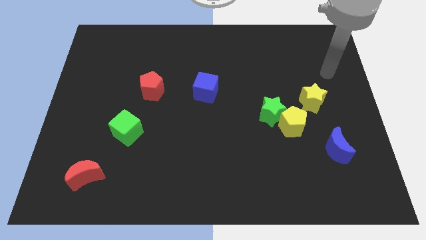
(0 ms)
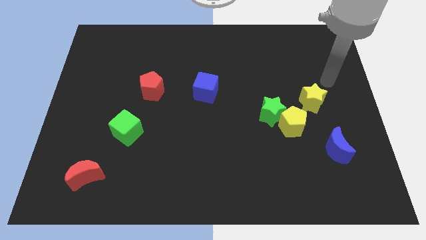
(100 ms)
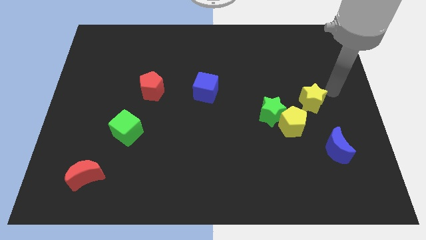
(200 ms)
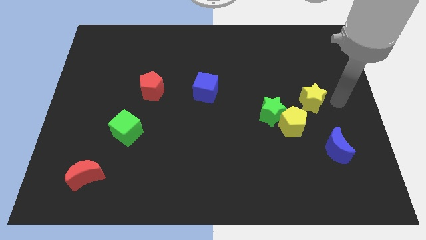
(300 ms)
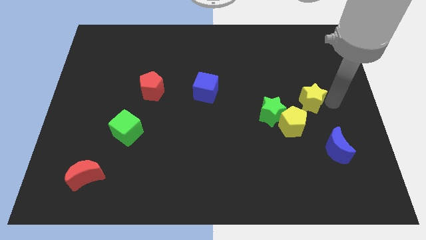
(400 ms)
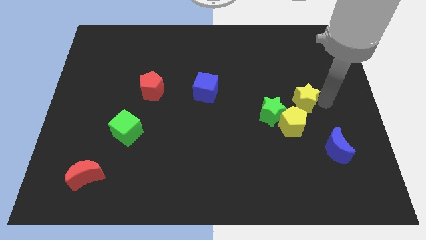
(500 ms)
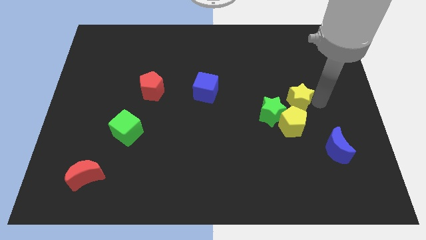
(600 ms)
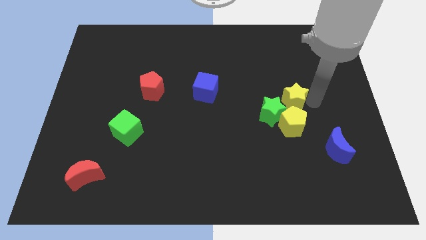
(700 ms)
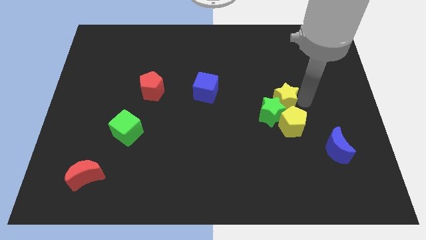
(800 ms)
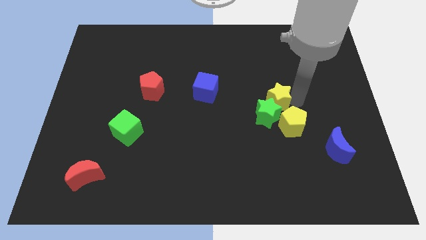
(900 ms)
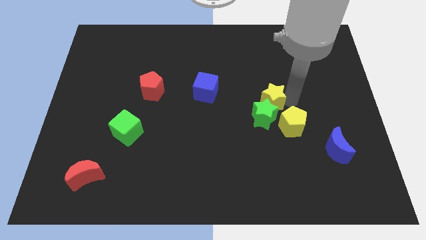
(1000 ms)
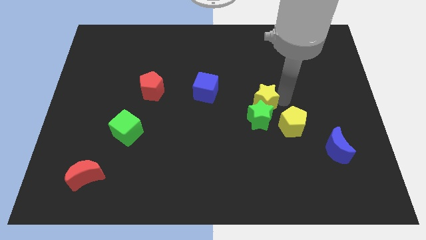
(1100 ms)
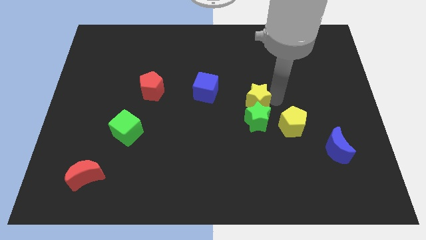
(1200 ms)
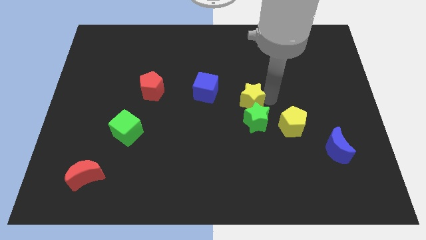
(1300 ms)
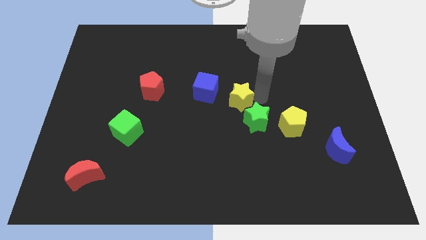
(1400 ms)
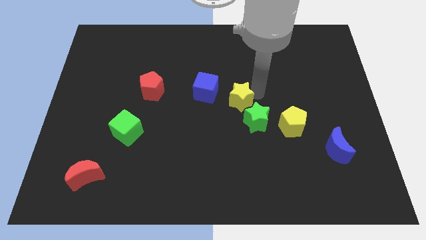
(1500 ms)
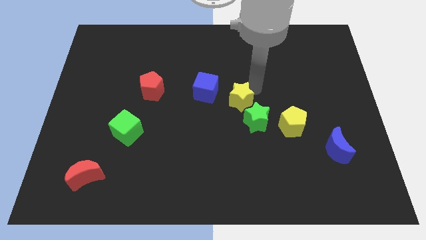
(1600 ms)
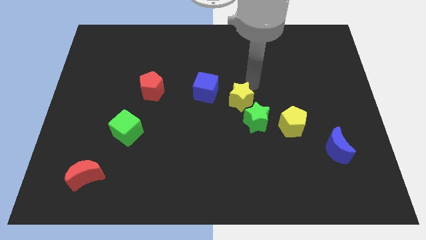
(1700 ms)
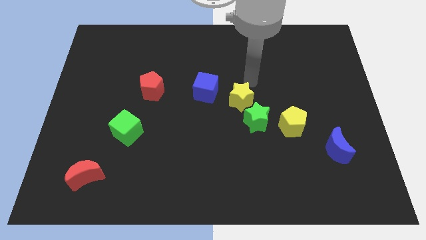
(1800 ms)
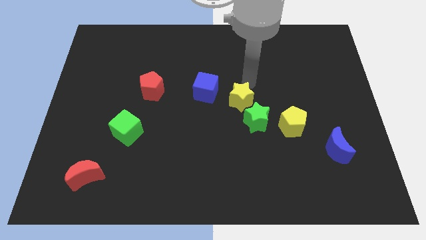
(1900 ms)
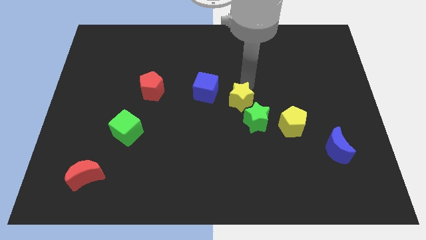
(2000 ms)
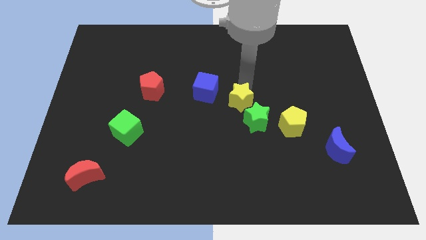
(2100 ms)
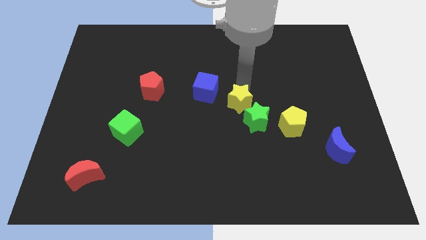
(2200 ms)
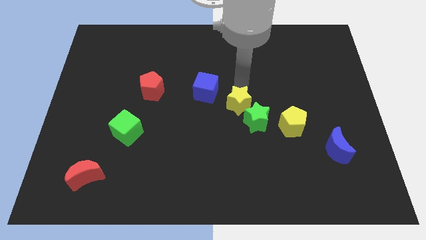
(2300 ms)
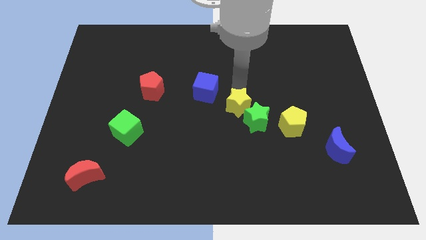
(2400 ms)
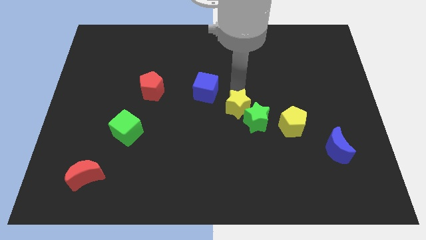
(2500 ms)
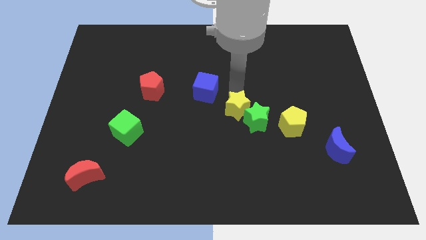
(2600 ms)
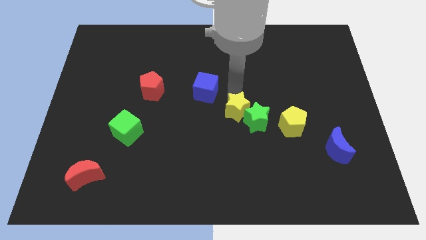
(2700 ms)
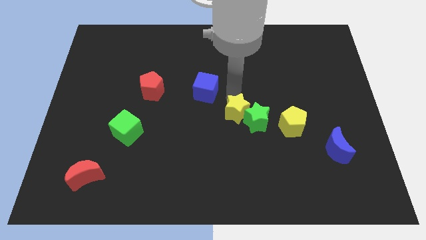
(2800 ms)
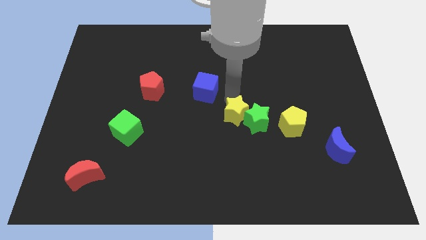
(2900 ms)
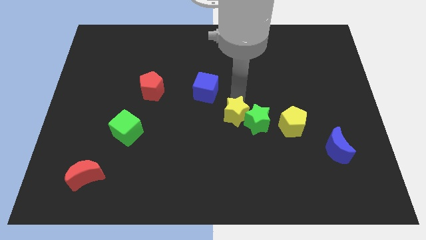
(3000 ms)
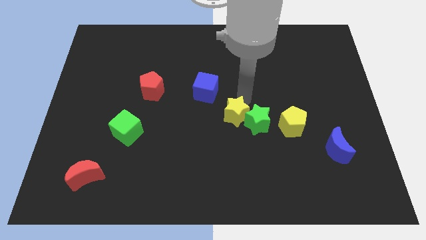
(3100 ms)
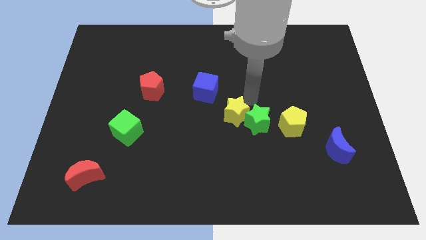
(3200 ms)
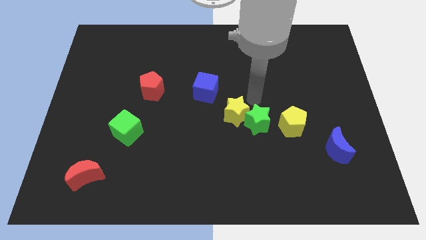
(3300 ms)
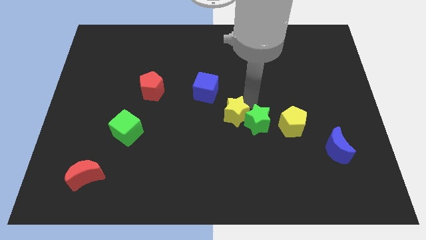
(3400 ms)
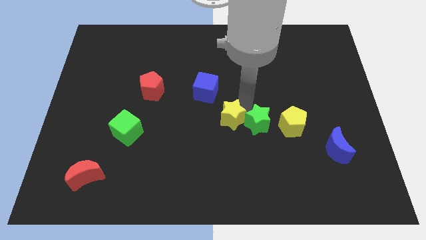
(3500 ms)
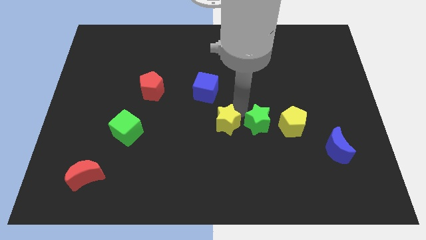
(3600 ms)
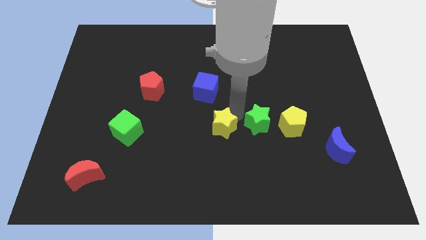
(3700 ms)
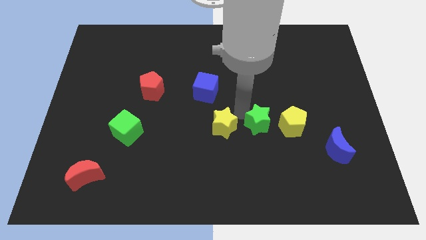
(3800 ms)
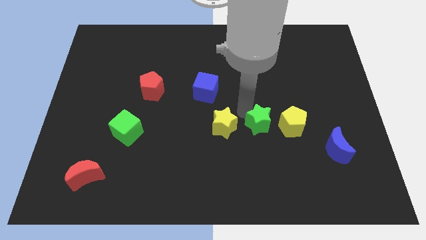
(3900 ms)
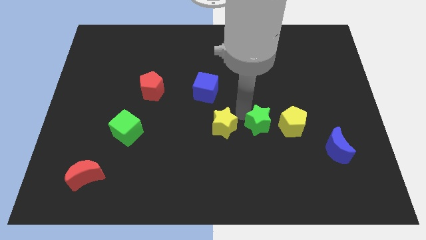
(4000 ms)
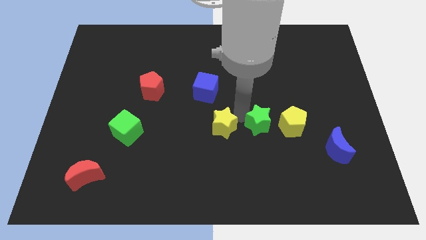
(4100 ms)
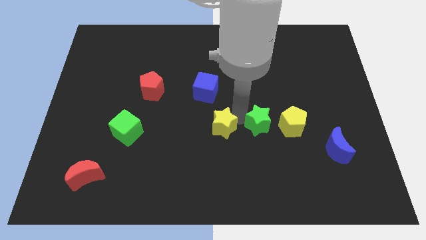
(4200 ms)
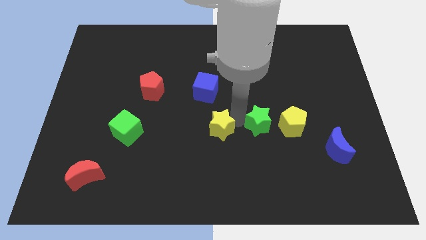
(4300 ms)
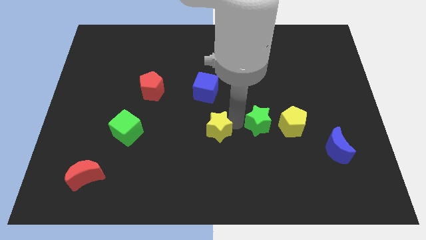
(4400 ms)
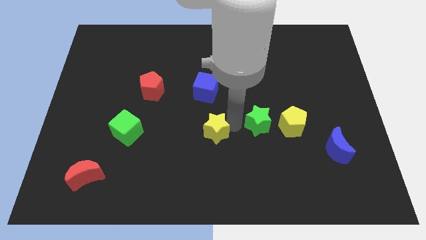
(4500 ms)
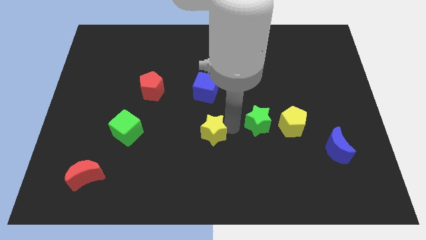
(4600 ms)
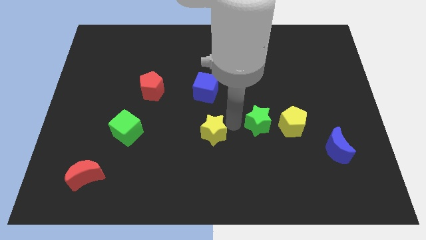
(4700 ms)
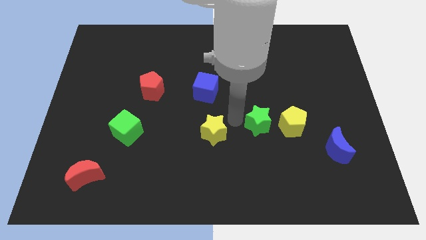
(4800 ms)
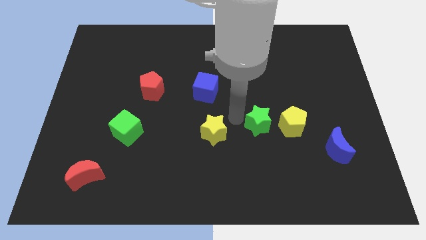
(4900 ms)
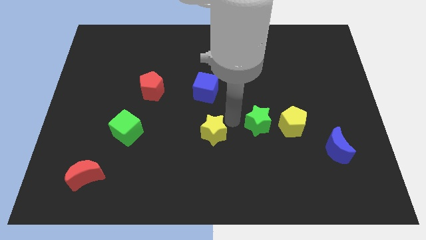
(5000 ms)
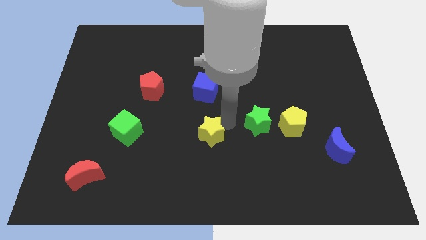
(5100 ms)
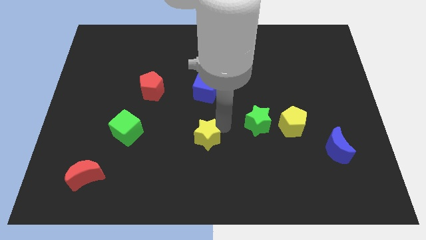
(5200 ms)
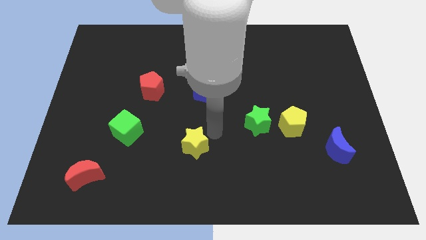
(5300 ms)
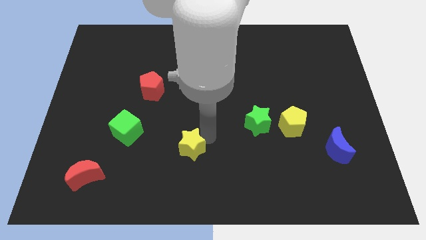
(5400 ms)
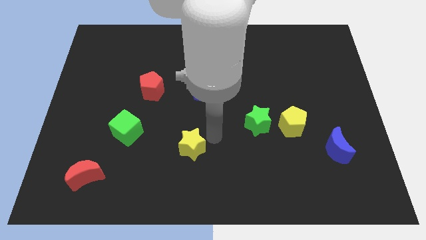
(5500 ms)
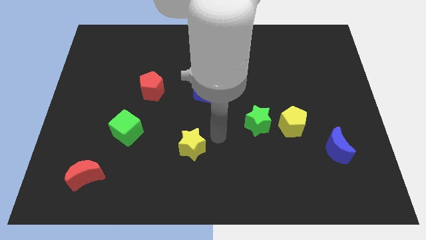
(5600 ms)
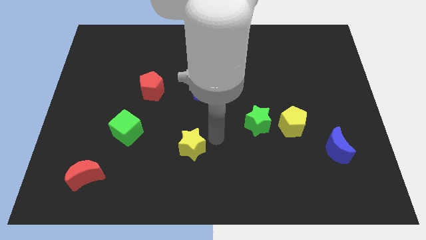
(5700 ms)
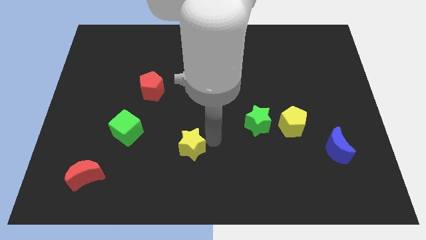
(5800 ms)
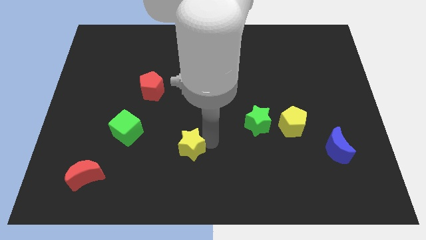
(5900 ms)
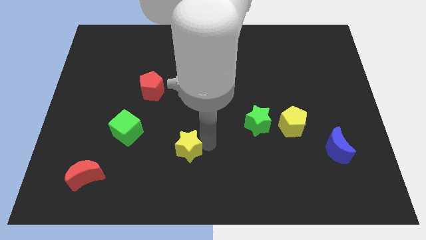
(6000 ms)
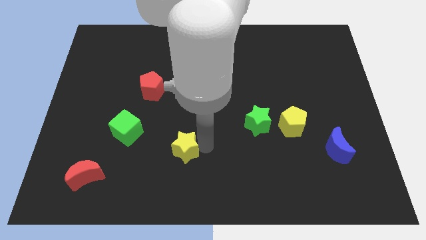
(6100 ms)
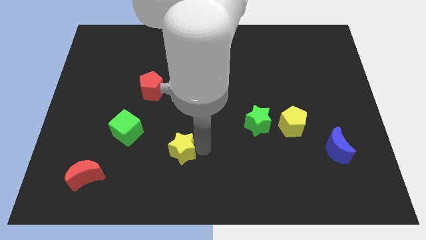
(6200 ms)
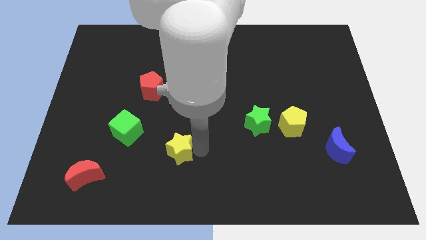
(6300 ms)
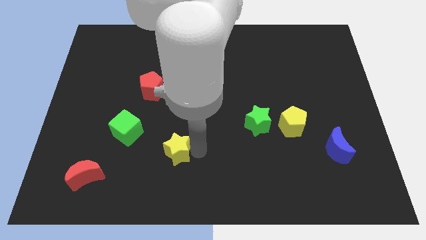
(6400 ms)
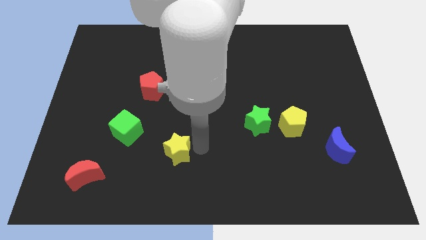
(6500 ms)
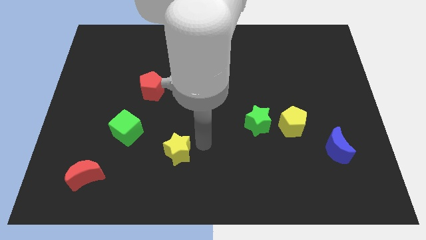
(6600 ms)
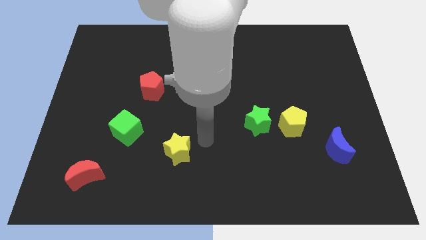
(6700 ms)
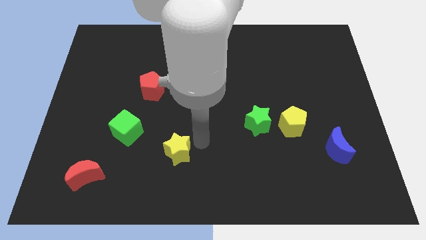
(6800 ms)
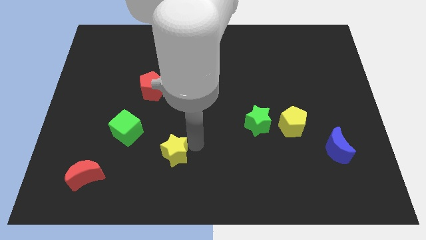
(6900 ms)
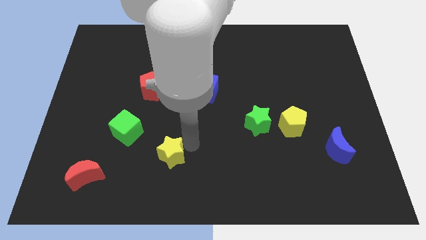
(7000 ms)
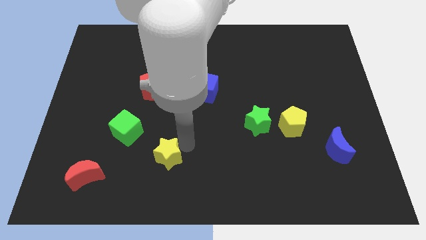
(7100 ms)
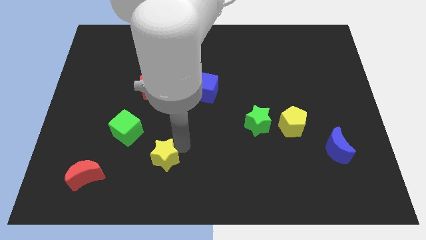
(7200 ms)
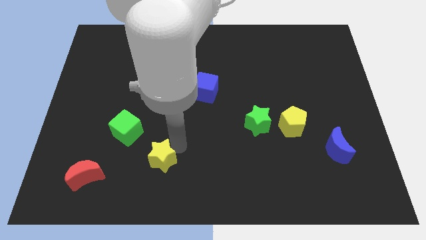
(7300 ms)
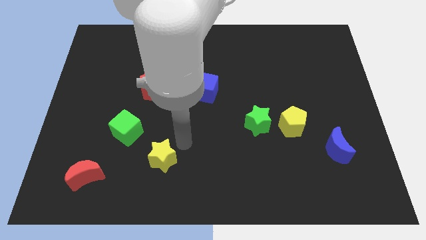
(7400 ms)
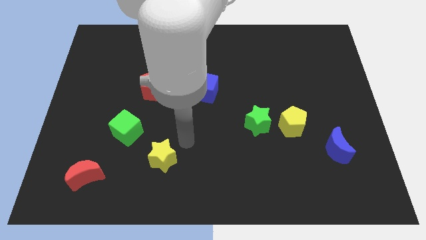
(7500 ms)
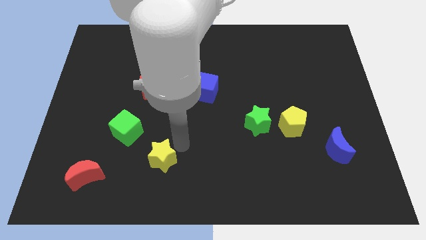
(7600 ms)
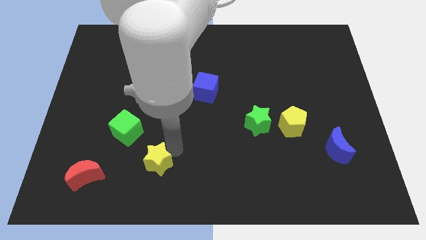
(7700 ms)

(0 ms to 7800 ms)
put the yellow star to the right of the red moon
